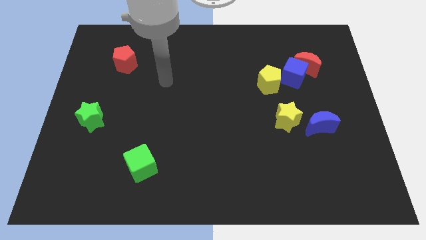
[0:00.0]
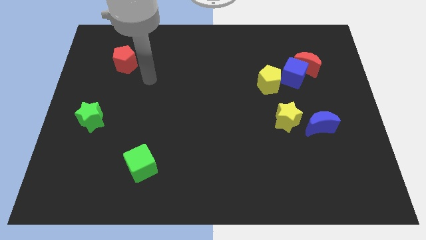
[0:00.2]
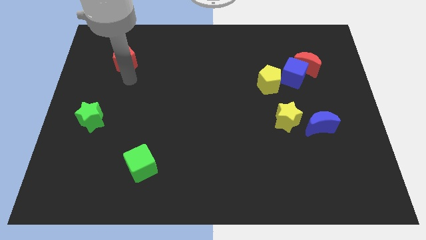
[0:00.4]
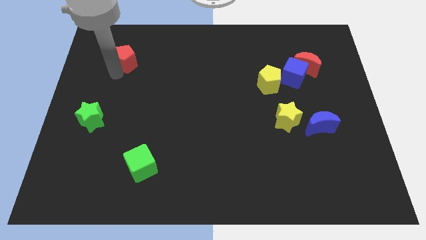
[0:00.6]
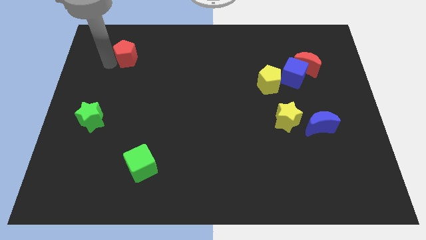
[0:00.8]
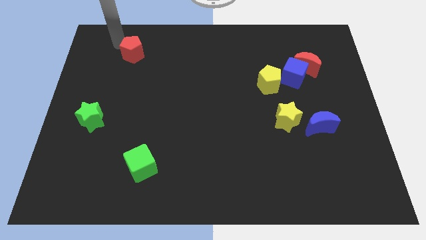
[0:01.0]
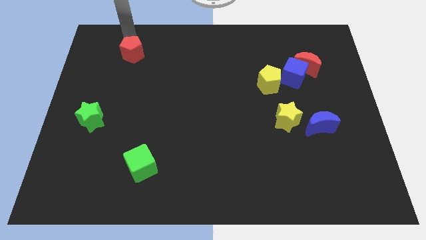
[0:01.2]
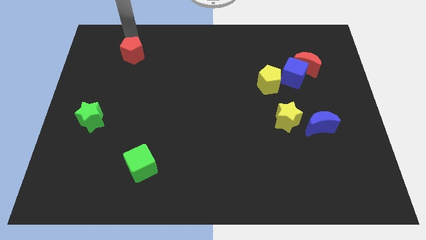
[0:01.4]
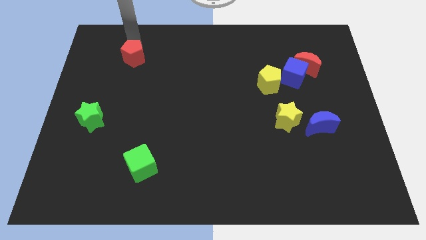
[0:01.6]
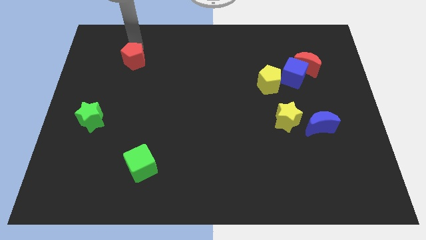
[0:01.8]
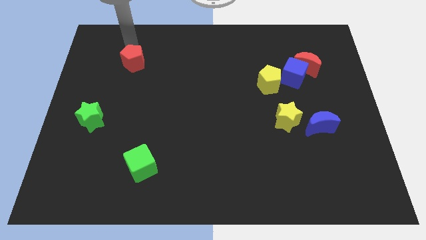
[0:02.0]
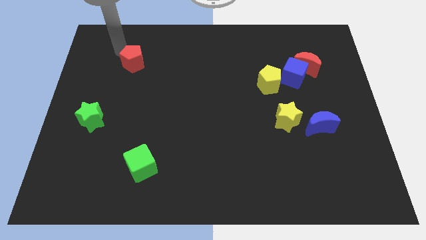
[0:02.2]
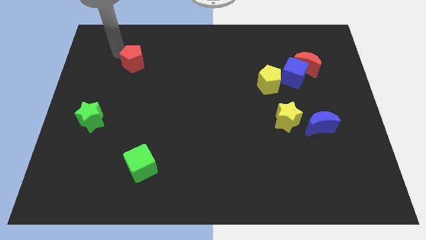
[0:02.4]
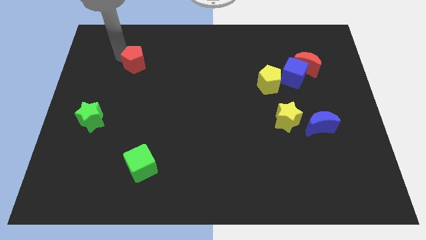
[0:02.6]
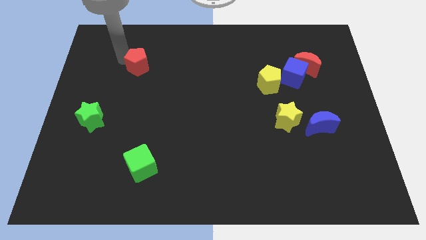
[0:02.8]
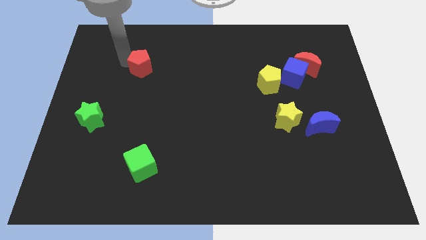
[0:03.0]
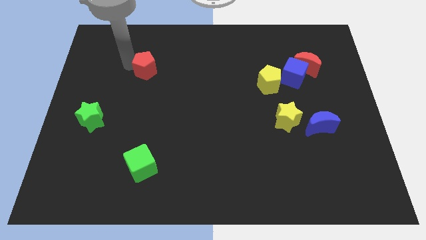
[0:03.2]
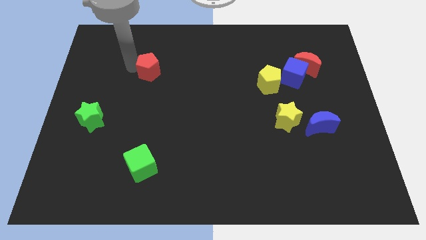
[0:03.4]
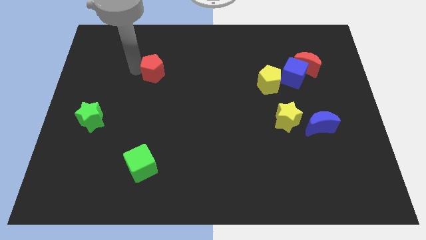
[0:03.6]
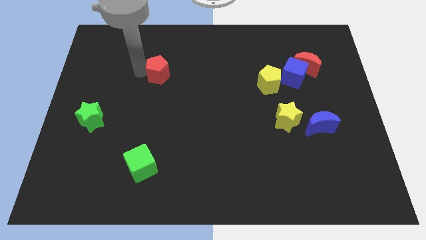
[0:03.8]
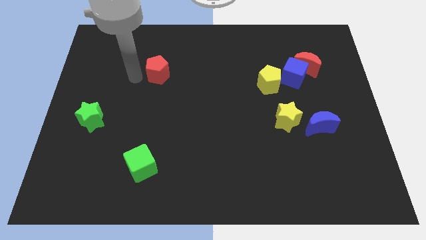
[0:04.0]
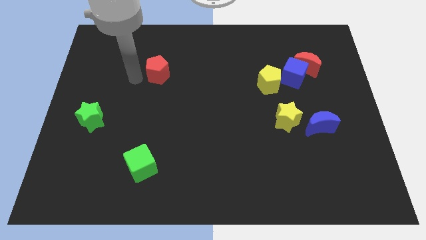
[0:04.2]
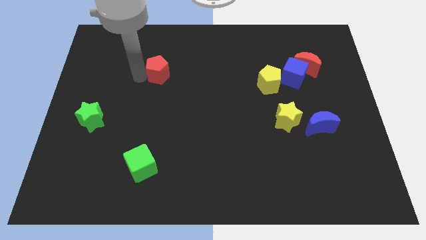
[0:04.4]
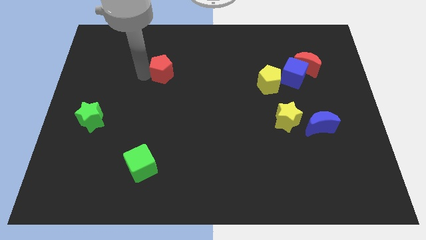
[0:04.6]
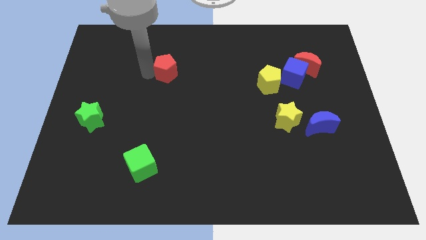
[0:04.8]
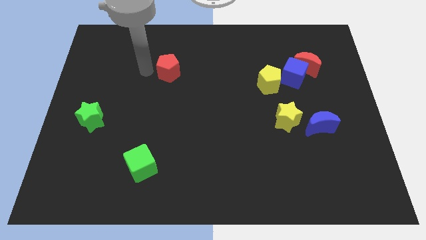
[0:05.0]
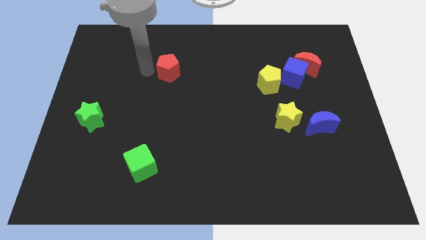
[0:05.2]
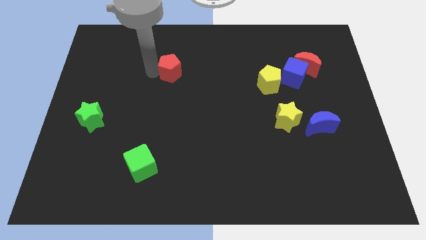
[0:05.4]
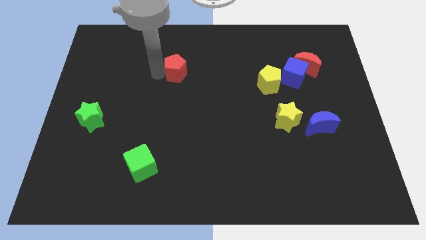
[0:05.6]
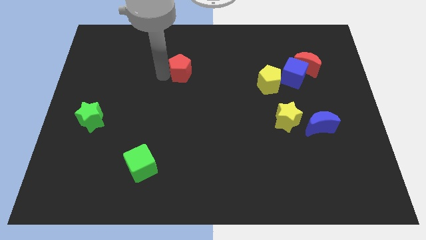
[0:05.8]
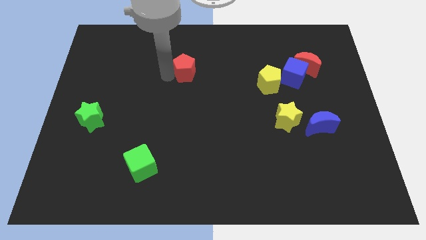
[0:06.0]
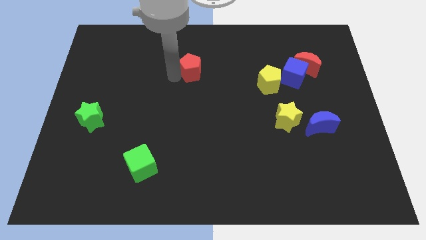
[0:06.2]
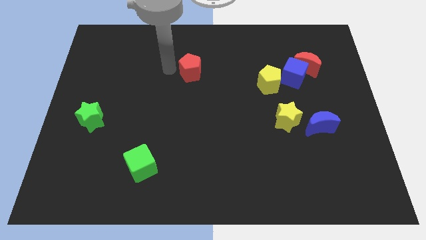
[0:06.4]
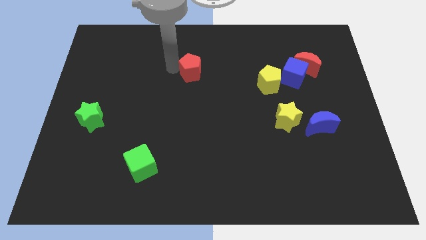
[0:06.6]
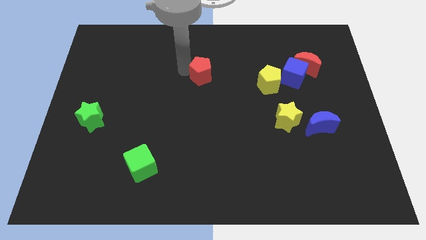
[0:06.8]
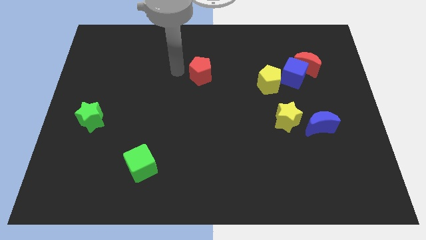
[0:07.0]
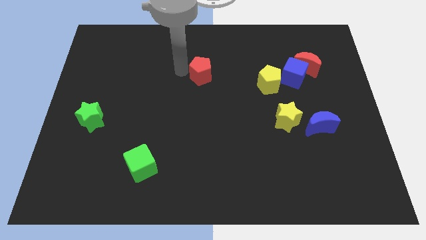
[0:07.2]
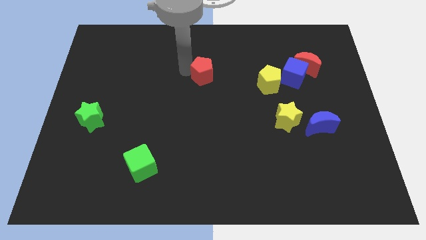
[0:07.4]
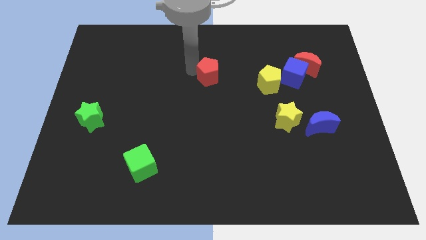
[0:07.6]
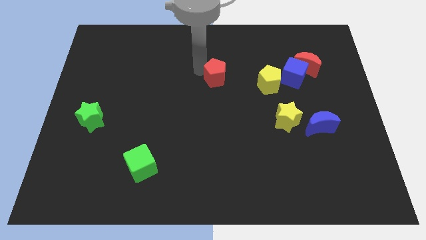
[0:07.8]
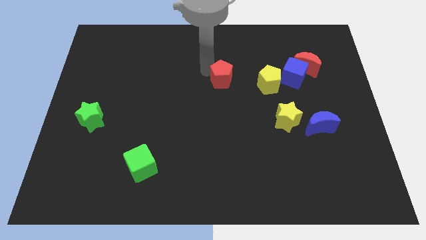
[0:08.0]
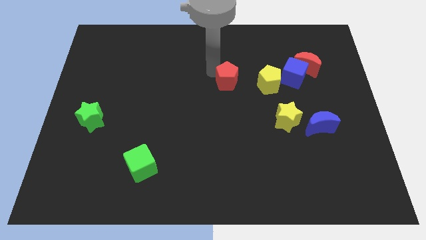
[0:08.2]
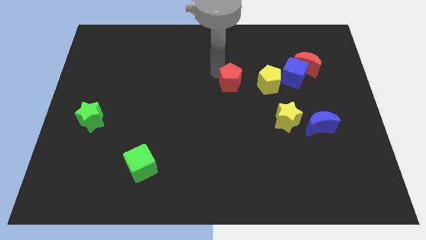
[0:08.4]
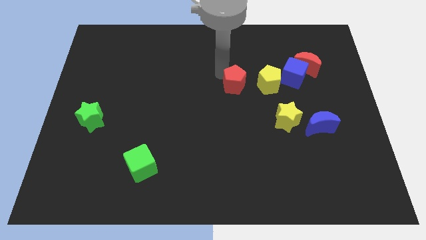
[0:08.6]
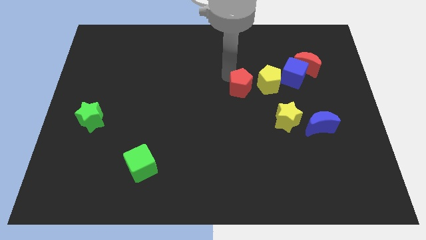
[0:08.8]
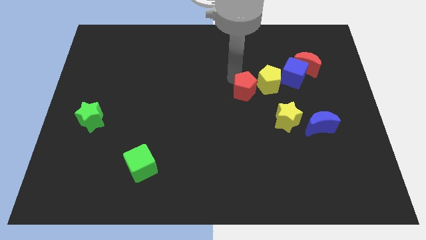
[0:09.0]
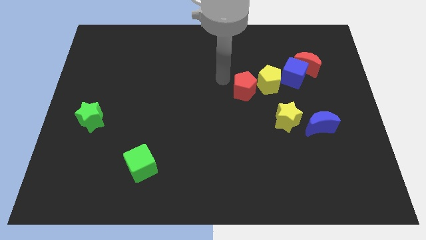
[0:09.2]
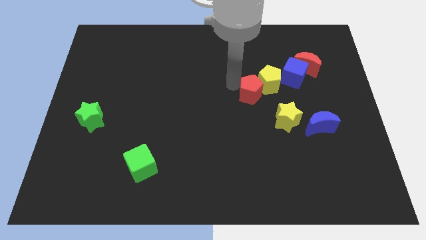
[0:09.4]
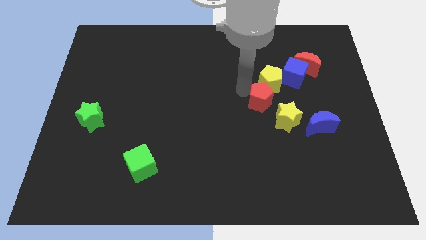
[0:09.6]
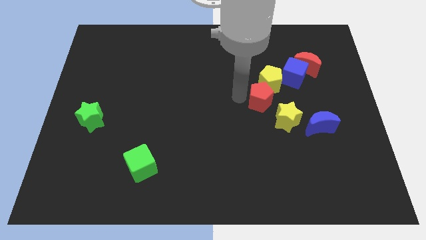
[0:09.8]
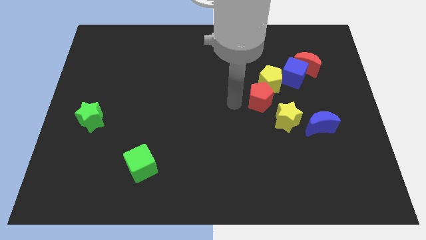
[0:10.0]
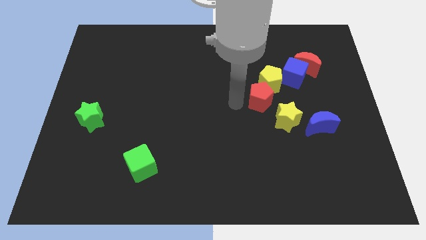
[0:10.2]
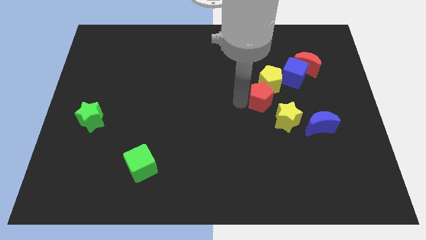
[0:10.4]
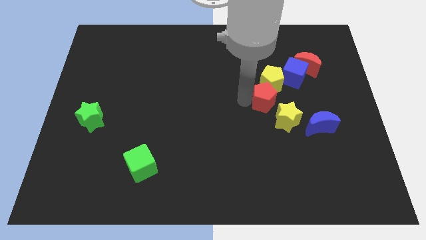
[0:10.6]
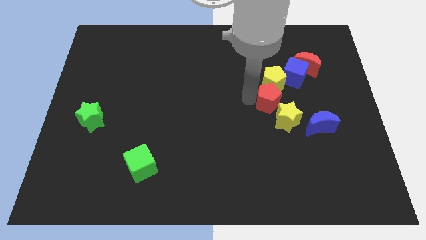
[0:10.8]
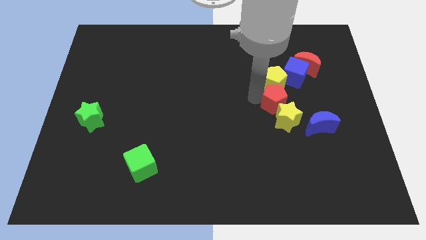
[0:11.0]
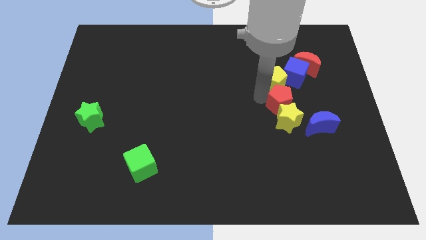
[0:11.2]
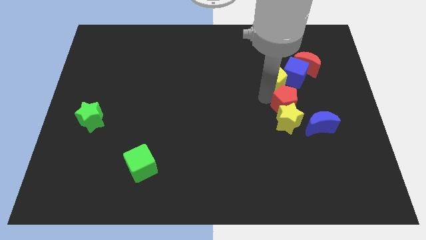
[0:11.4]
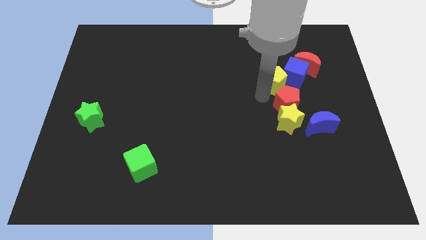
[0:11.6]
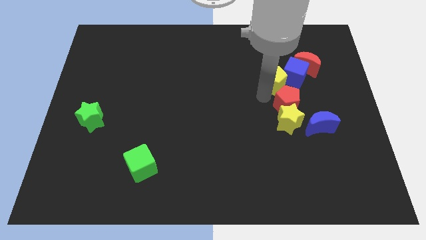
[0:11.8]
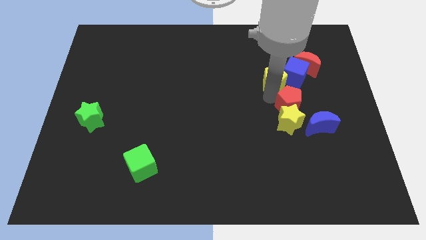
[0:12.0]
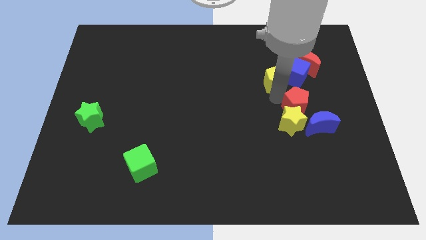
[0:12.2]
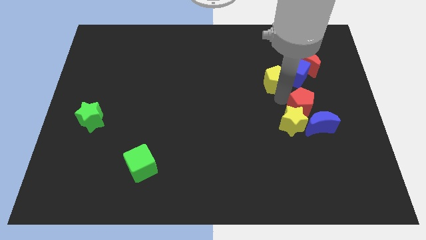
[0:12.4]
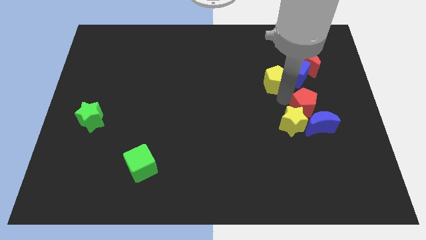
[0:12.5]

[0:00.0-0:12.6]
push the red pentagon next to the blue moon

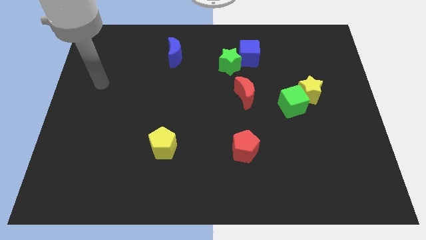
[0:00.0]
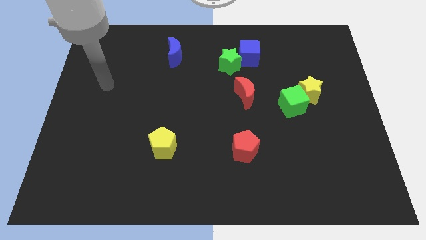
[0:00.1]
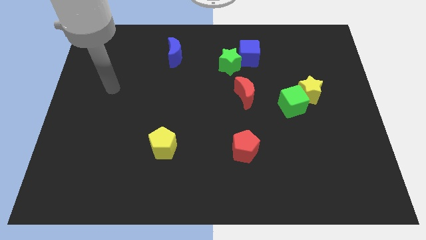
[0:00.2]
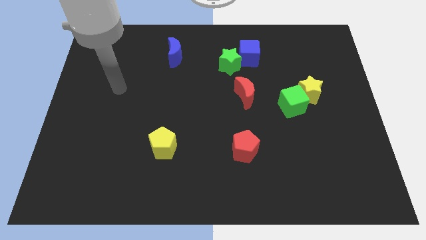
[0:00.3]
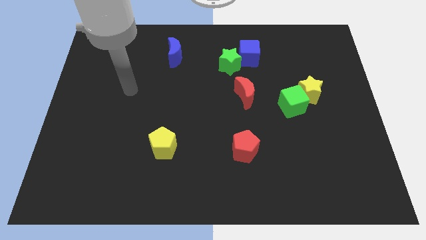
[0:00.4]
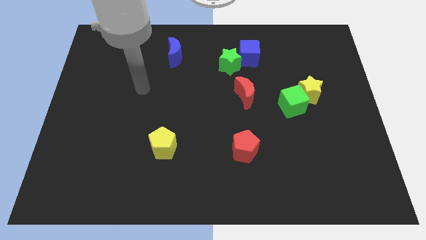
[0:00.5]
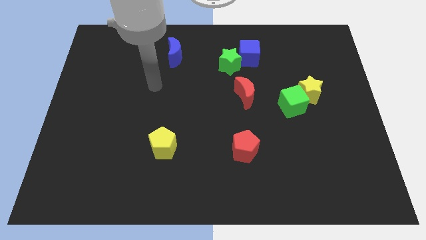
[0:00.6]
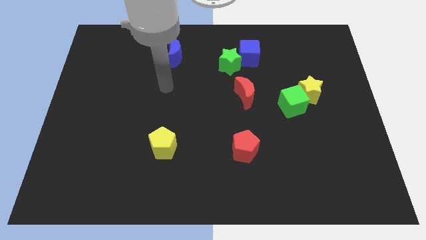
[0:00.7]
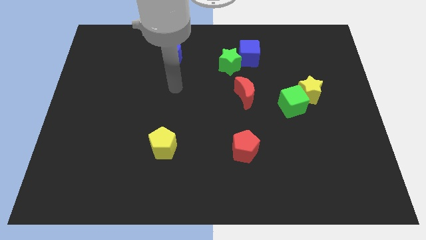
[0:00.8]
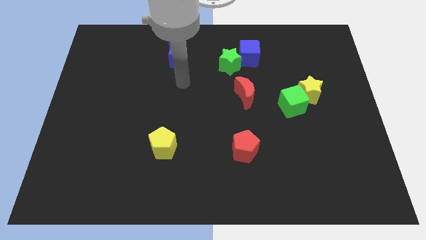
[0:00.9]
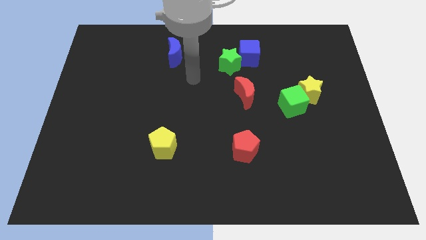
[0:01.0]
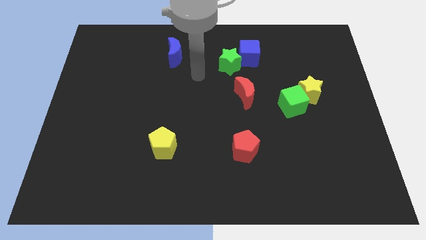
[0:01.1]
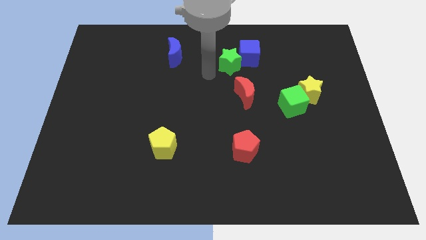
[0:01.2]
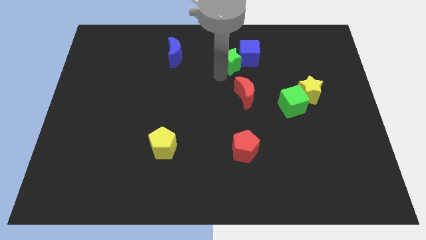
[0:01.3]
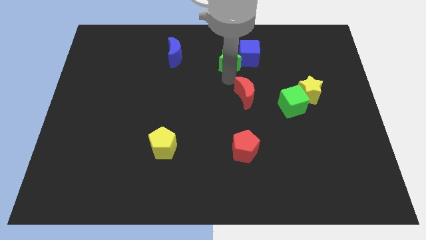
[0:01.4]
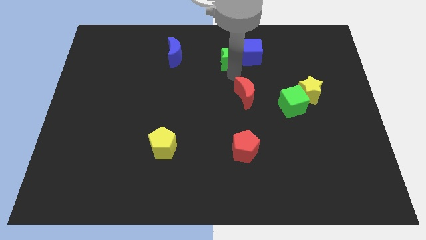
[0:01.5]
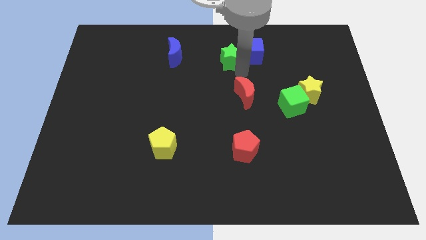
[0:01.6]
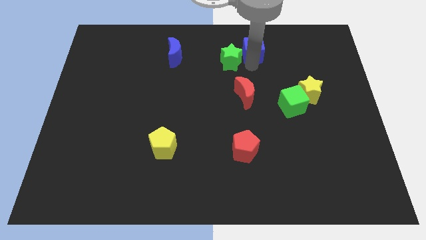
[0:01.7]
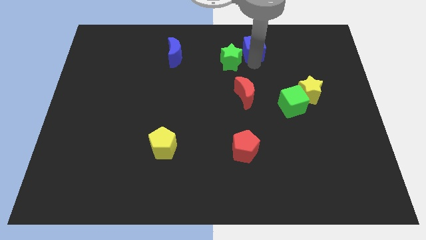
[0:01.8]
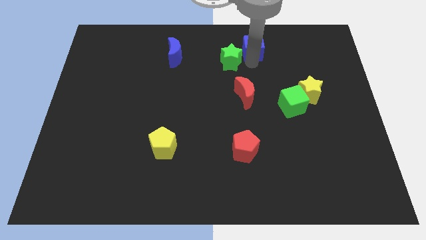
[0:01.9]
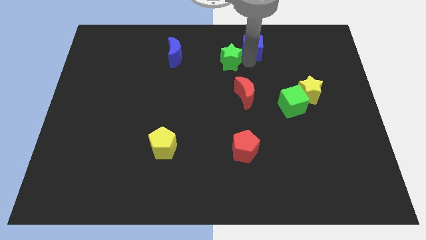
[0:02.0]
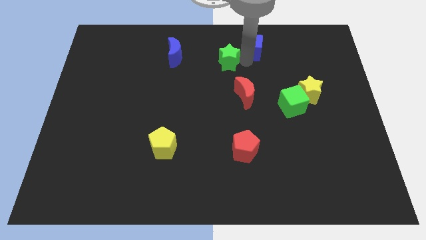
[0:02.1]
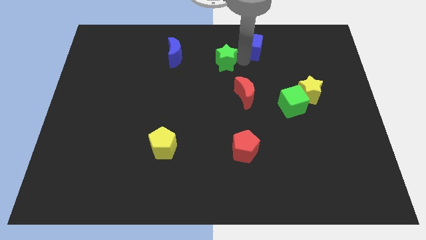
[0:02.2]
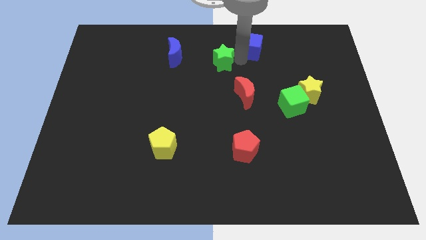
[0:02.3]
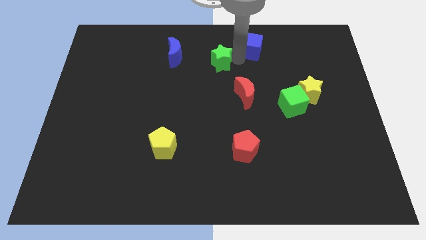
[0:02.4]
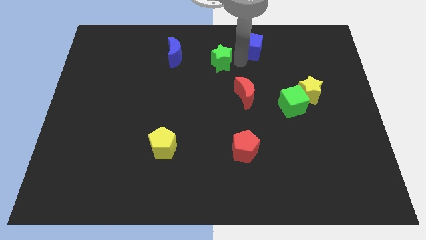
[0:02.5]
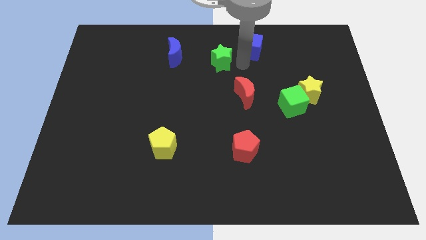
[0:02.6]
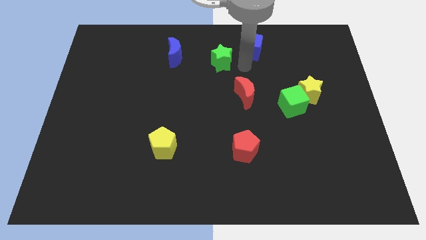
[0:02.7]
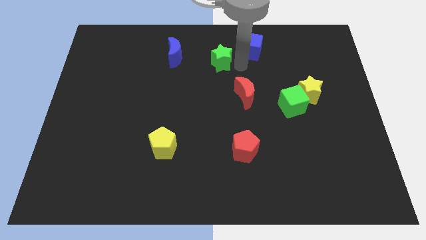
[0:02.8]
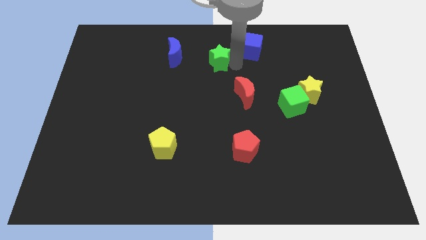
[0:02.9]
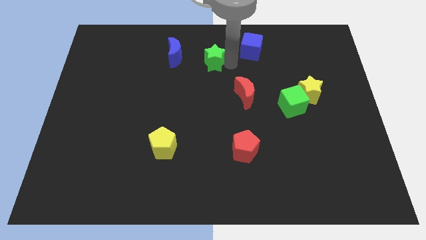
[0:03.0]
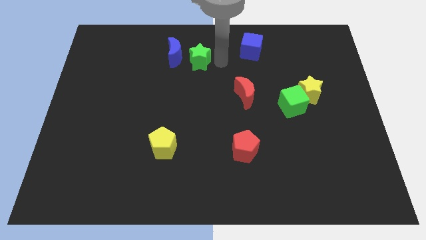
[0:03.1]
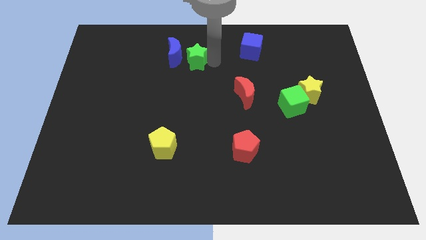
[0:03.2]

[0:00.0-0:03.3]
push the green star to the blue moon
